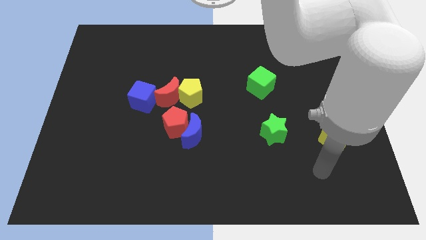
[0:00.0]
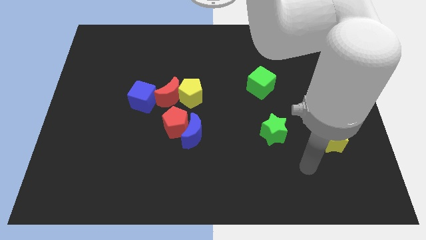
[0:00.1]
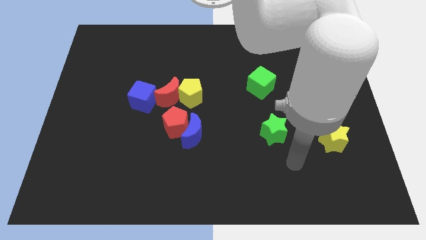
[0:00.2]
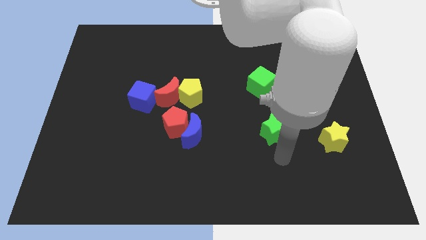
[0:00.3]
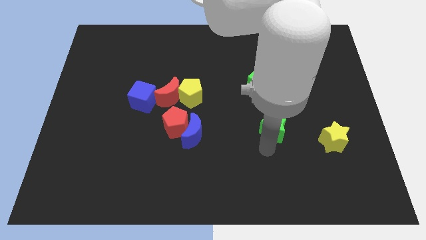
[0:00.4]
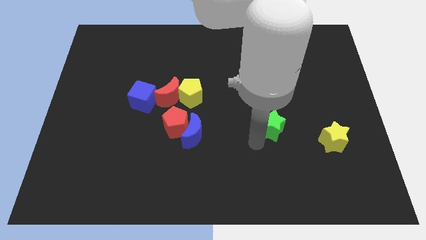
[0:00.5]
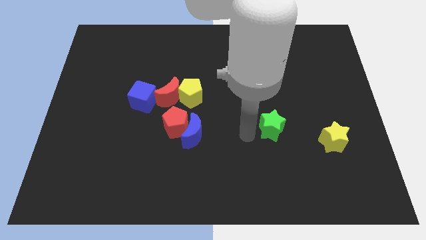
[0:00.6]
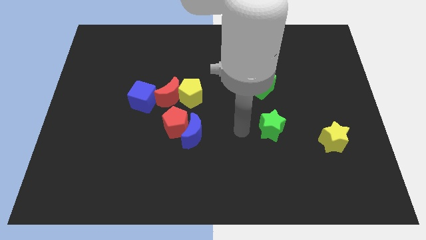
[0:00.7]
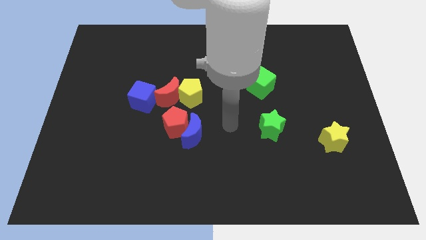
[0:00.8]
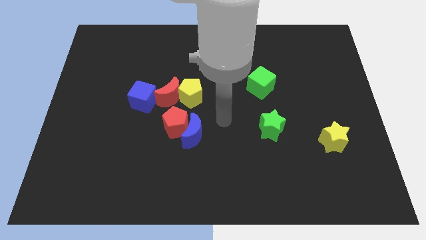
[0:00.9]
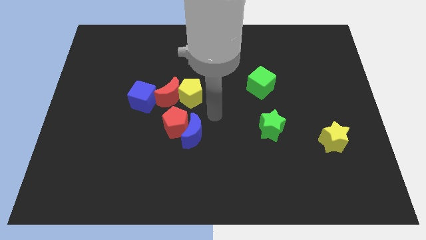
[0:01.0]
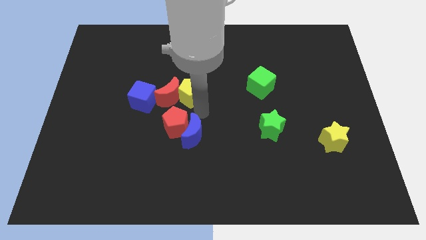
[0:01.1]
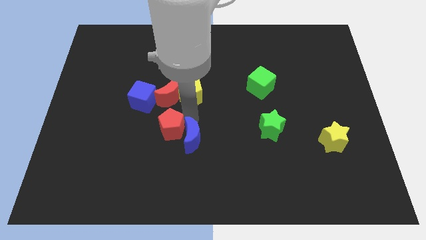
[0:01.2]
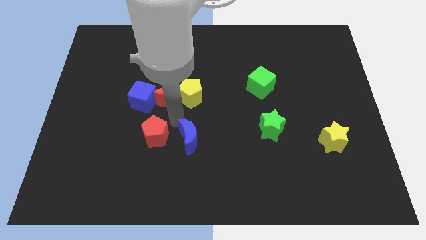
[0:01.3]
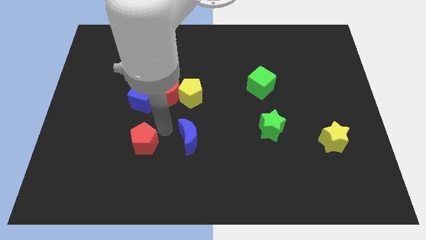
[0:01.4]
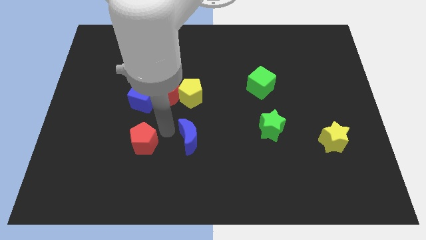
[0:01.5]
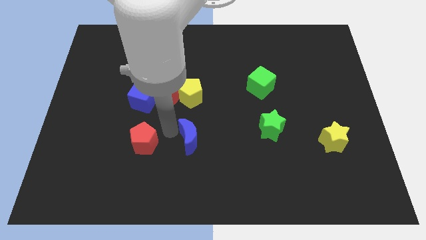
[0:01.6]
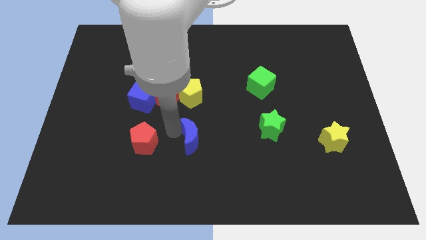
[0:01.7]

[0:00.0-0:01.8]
move the blue moon away from the red pentagon

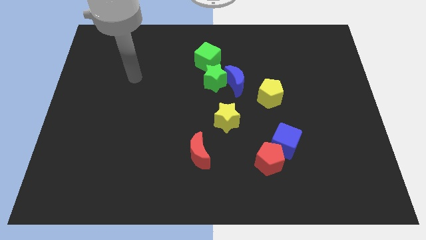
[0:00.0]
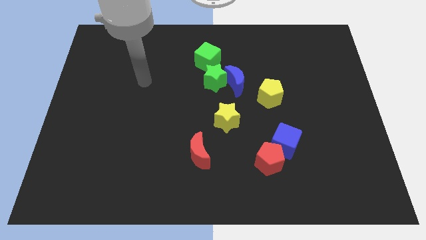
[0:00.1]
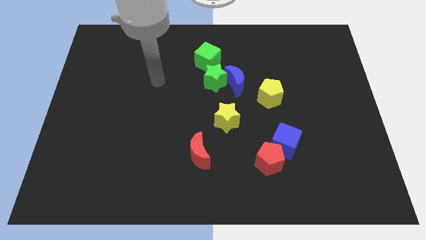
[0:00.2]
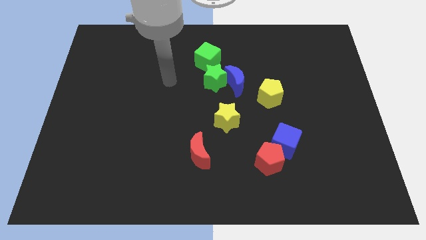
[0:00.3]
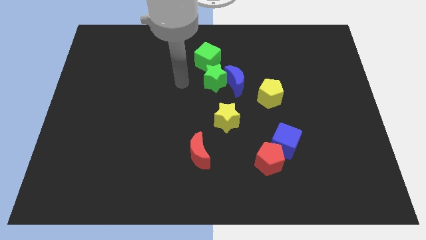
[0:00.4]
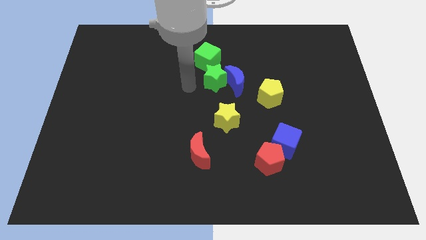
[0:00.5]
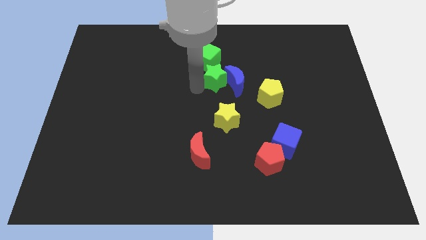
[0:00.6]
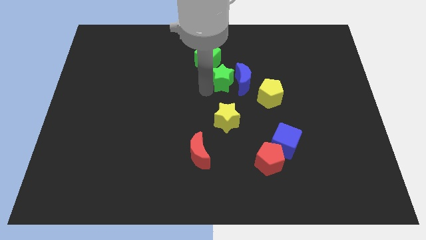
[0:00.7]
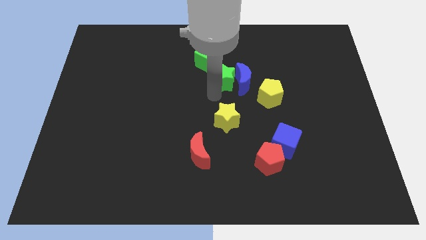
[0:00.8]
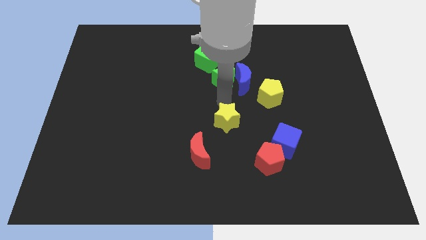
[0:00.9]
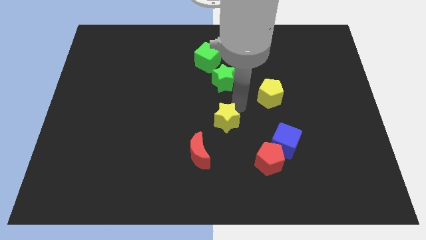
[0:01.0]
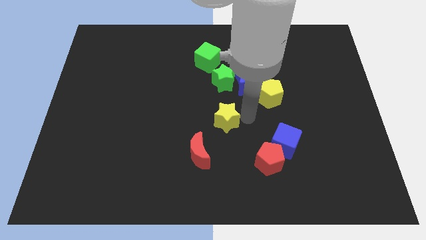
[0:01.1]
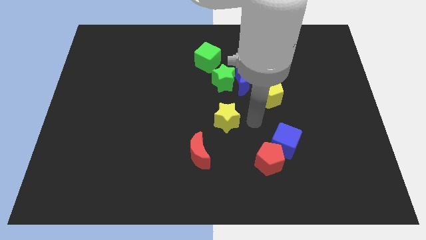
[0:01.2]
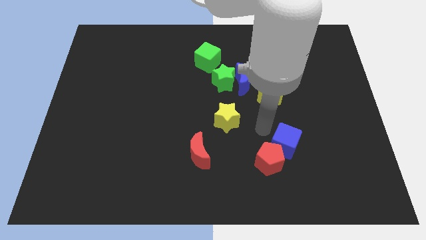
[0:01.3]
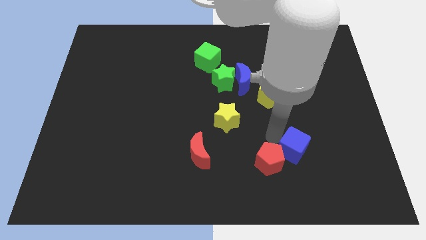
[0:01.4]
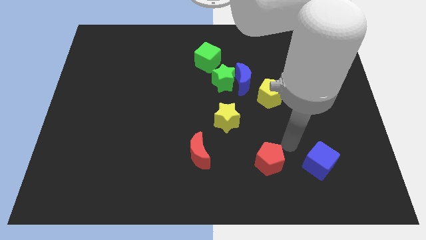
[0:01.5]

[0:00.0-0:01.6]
pull the red pentagon apart from the blue cube

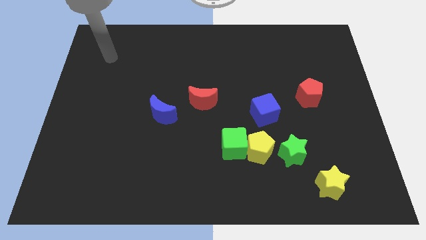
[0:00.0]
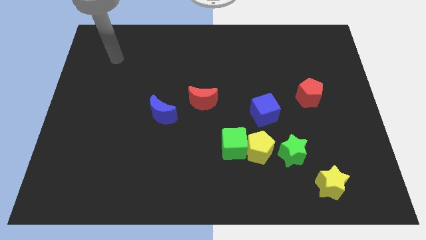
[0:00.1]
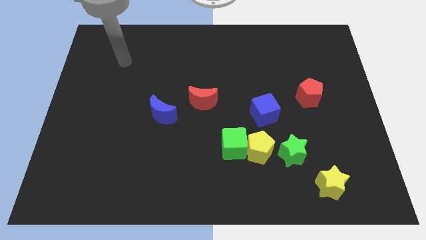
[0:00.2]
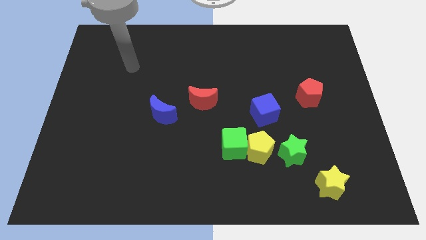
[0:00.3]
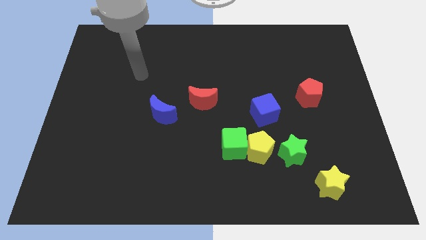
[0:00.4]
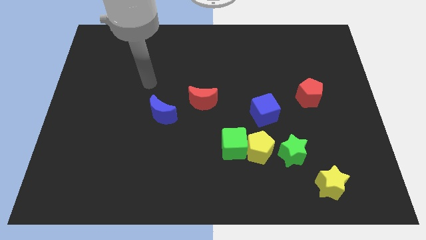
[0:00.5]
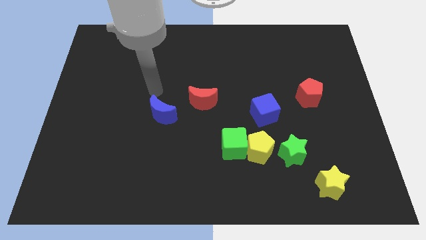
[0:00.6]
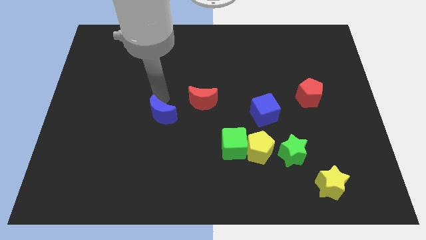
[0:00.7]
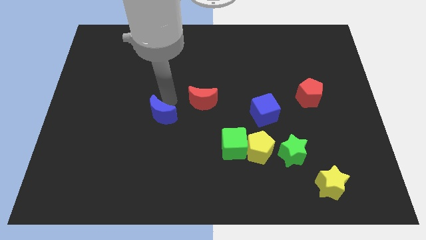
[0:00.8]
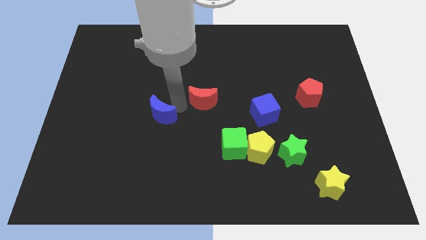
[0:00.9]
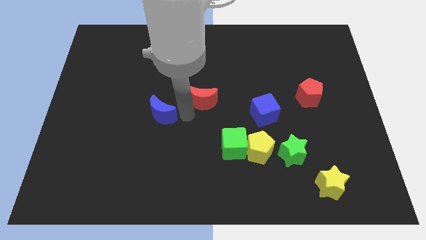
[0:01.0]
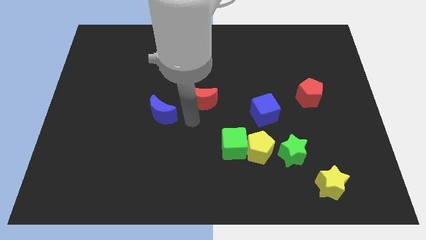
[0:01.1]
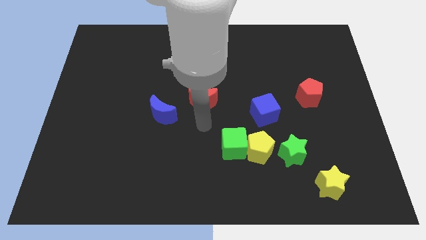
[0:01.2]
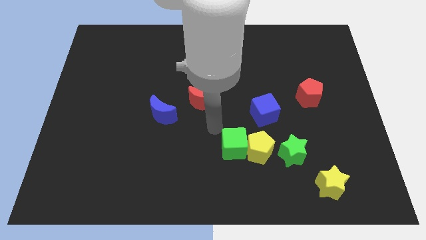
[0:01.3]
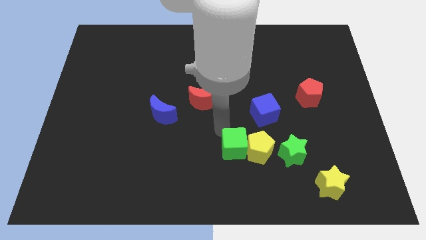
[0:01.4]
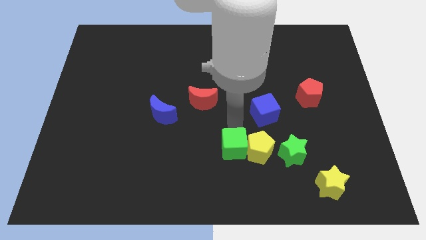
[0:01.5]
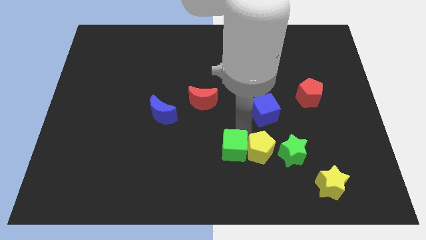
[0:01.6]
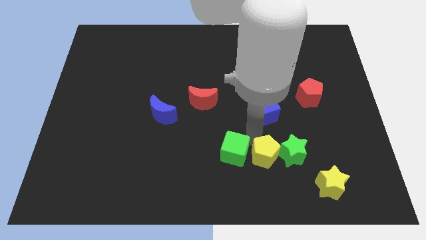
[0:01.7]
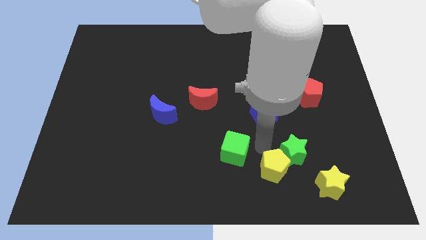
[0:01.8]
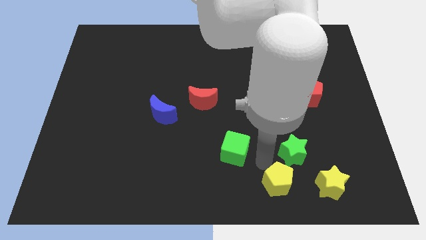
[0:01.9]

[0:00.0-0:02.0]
separate the green cube from the yellow pentagon

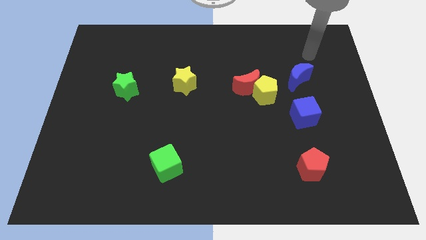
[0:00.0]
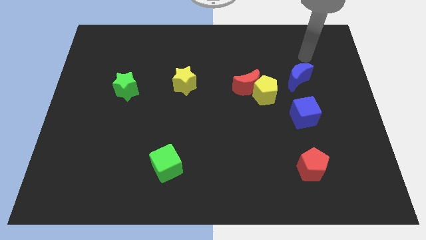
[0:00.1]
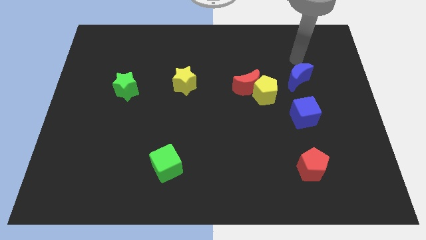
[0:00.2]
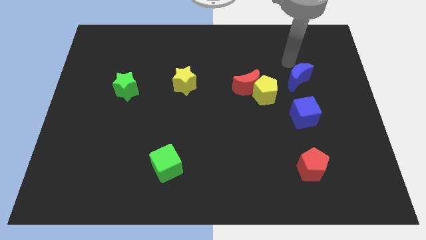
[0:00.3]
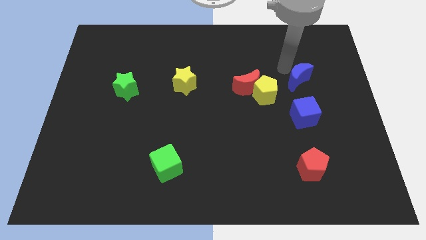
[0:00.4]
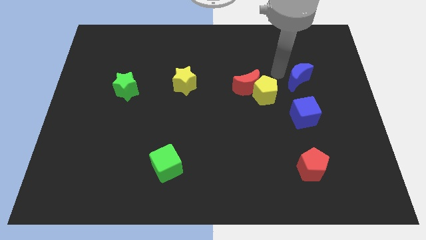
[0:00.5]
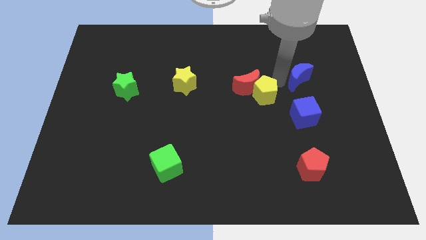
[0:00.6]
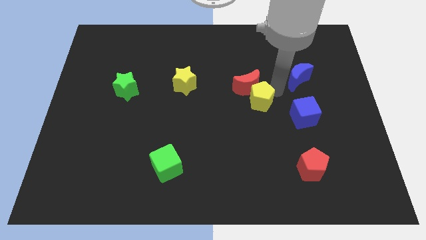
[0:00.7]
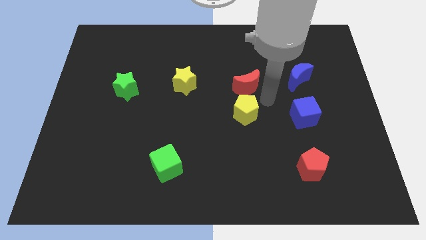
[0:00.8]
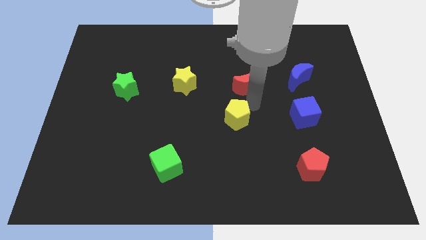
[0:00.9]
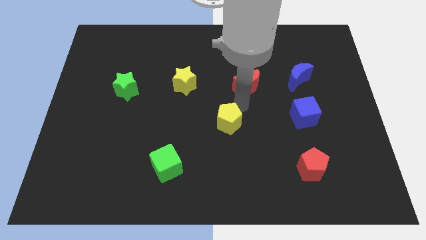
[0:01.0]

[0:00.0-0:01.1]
move the red moon away from the yellow pentagon

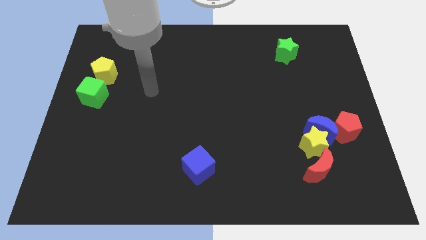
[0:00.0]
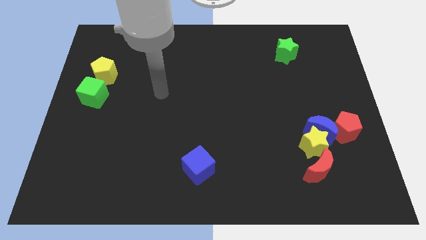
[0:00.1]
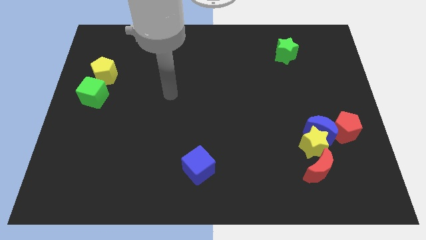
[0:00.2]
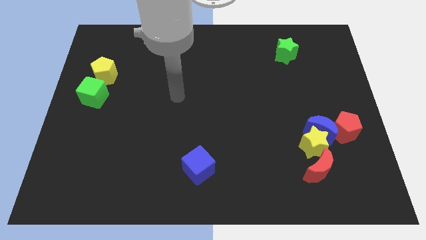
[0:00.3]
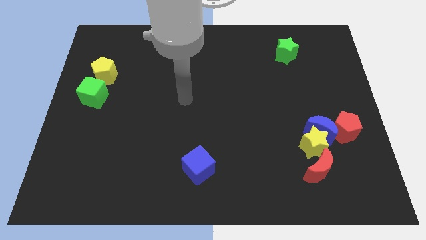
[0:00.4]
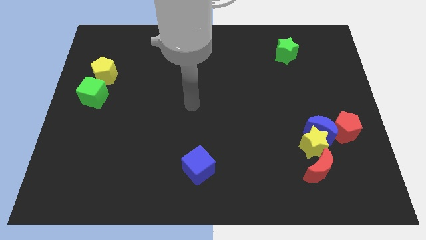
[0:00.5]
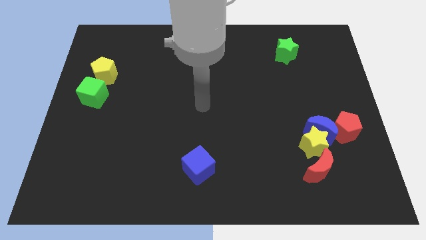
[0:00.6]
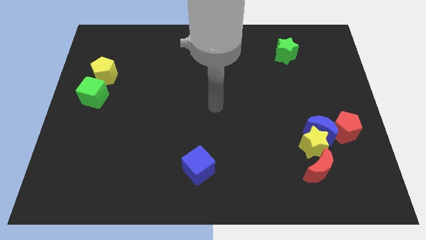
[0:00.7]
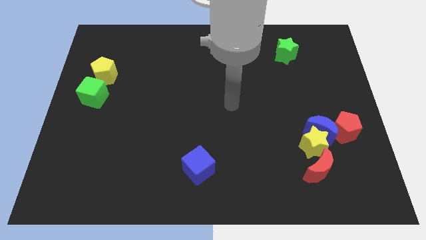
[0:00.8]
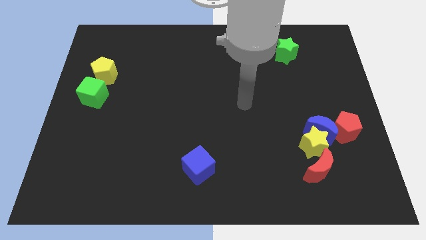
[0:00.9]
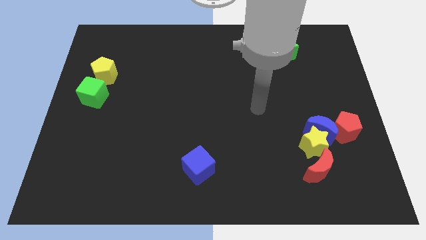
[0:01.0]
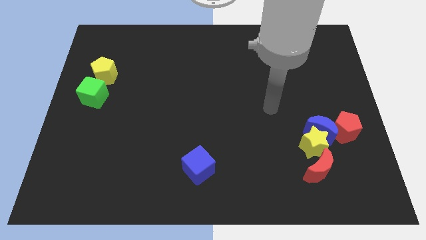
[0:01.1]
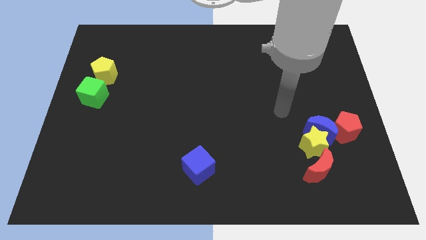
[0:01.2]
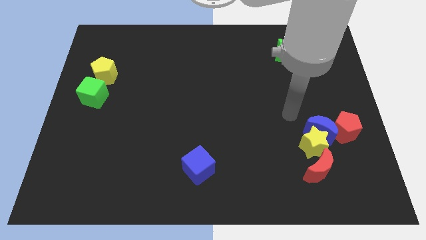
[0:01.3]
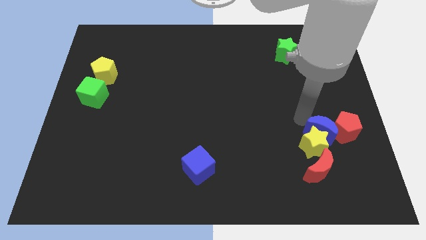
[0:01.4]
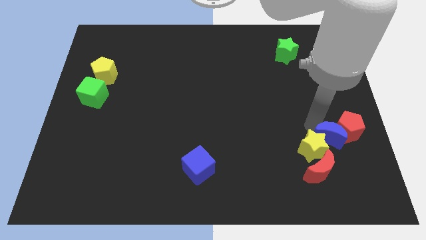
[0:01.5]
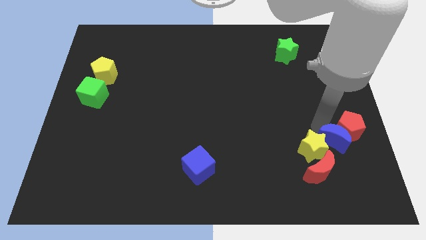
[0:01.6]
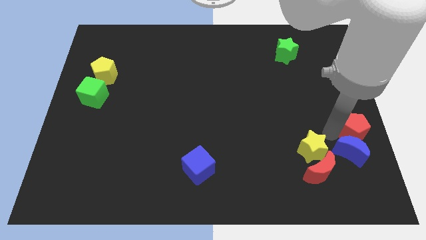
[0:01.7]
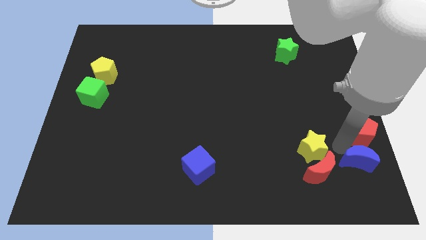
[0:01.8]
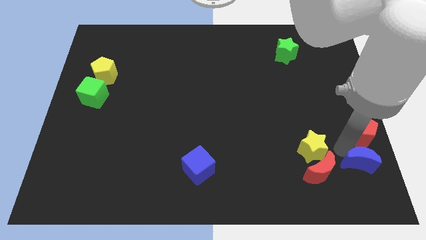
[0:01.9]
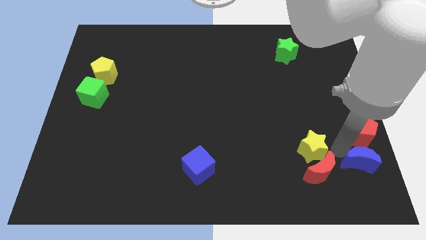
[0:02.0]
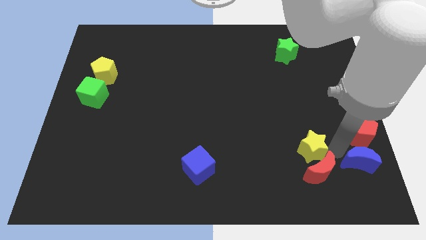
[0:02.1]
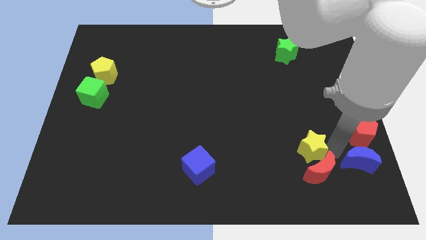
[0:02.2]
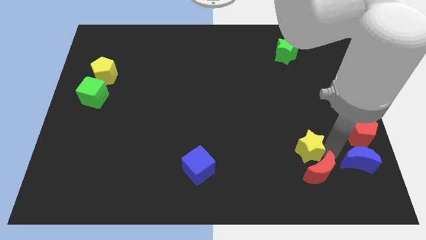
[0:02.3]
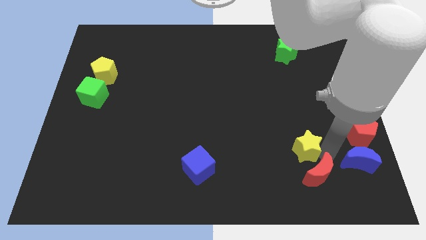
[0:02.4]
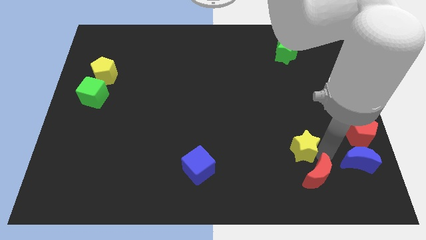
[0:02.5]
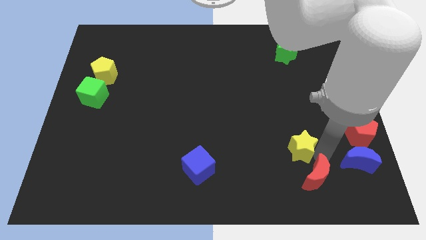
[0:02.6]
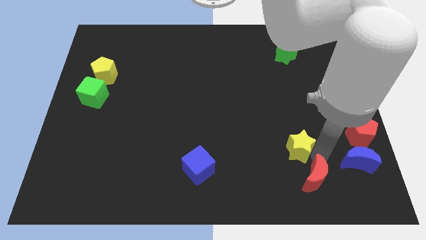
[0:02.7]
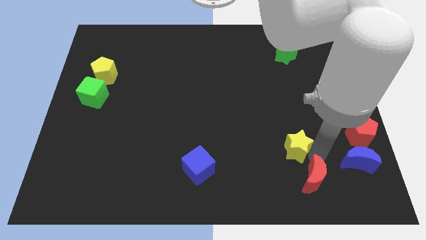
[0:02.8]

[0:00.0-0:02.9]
pull the yellow star apart from the blue moon, red moon, and red pentagon
